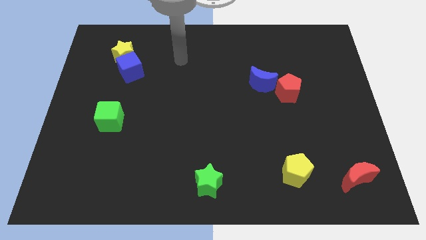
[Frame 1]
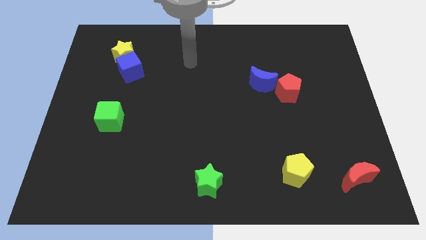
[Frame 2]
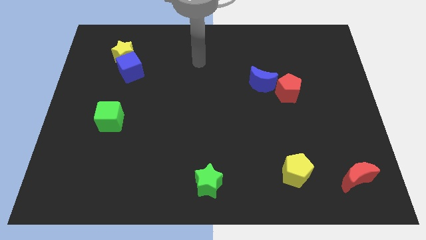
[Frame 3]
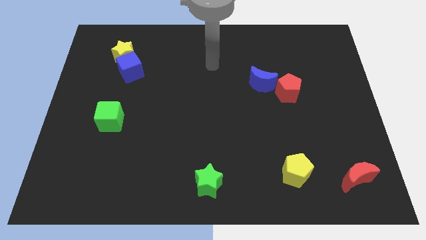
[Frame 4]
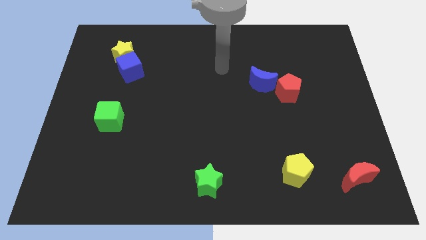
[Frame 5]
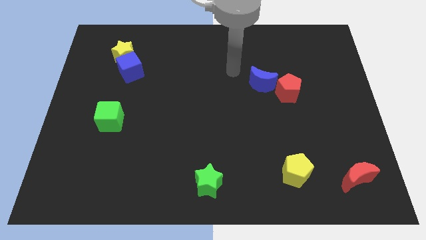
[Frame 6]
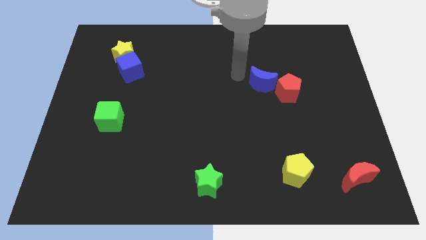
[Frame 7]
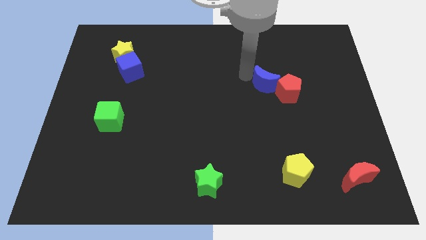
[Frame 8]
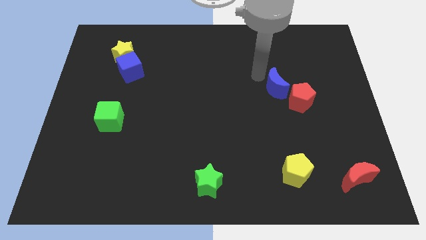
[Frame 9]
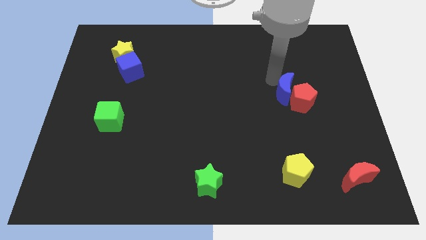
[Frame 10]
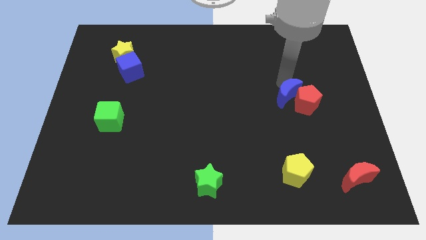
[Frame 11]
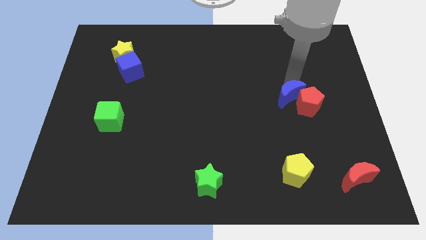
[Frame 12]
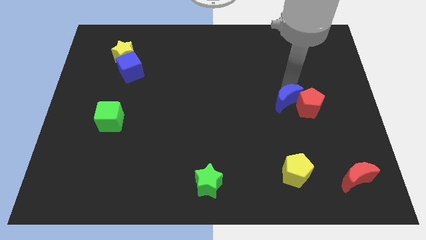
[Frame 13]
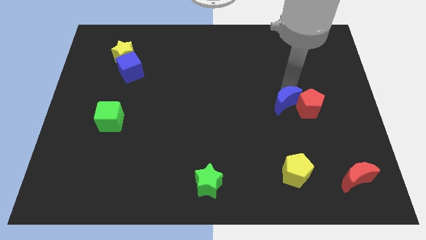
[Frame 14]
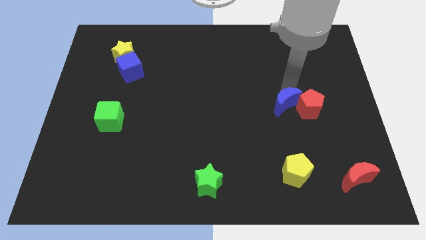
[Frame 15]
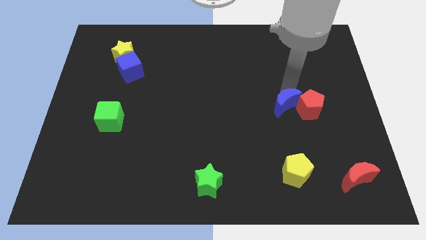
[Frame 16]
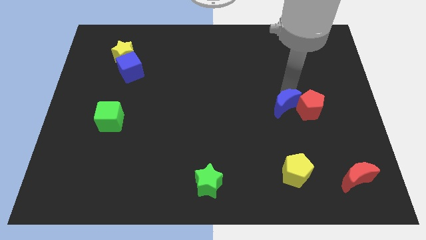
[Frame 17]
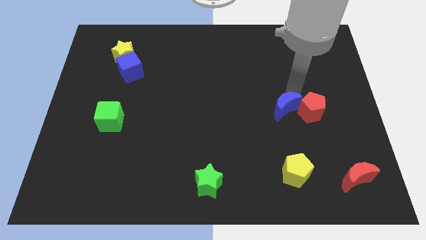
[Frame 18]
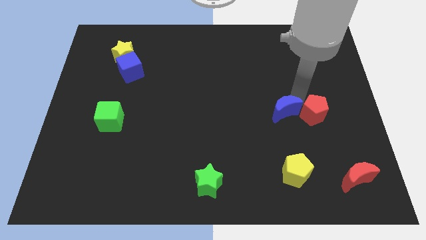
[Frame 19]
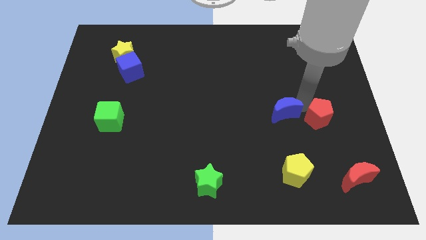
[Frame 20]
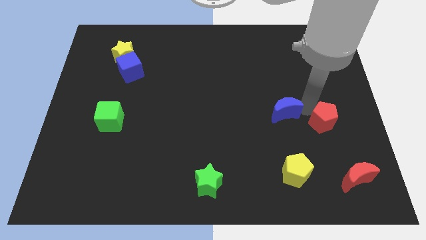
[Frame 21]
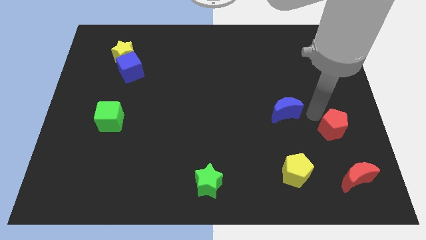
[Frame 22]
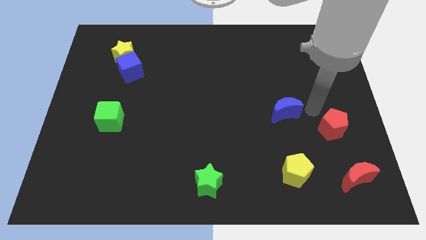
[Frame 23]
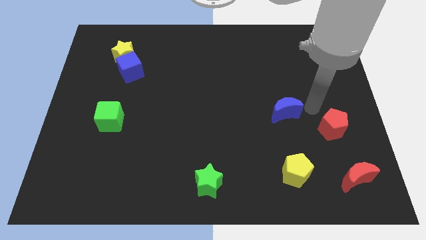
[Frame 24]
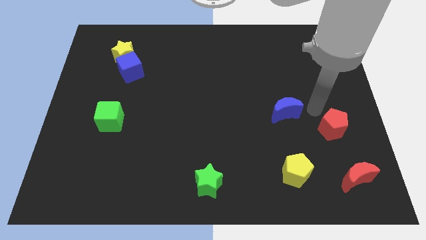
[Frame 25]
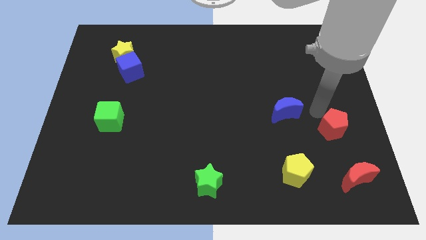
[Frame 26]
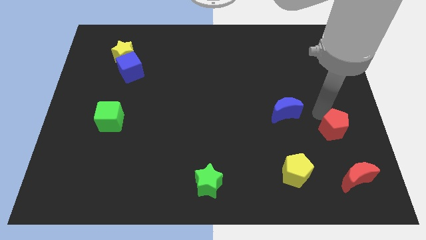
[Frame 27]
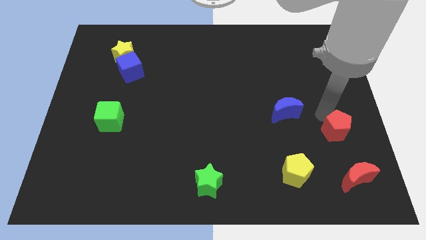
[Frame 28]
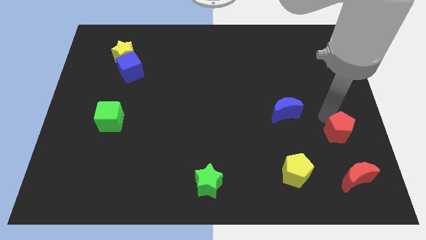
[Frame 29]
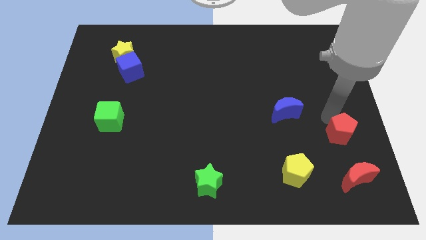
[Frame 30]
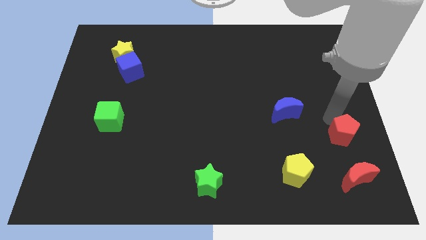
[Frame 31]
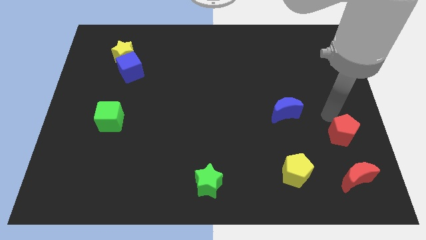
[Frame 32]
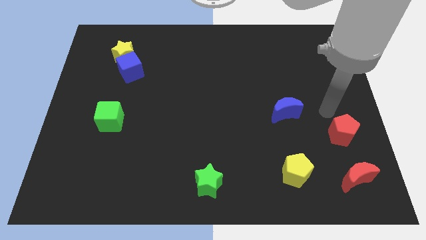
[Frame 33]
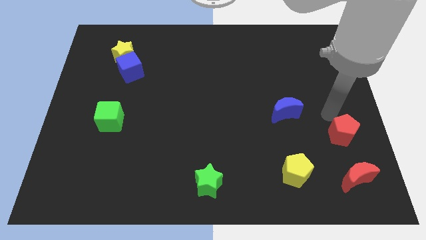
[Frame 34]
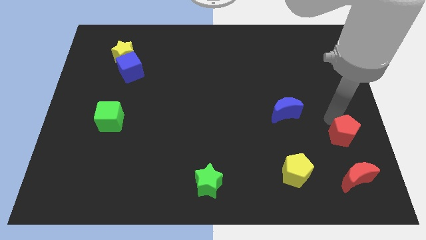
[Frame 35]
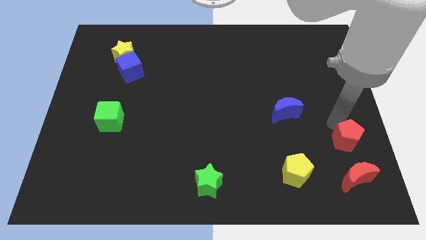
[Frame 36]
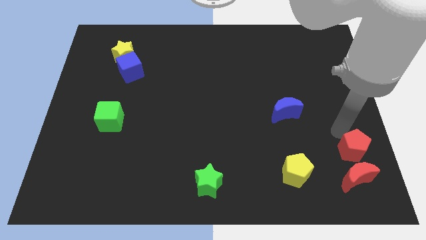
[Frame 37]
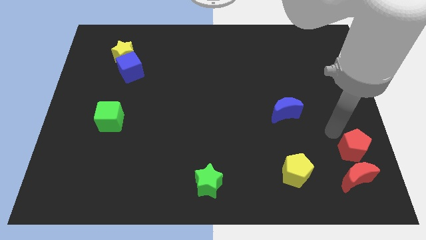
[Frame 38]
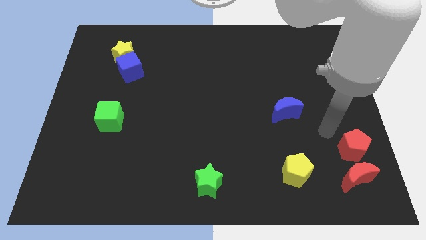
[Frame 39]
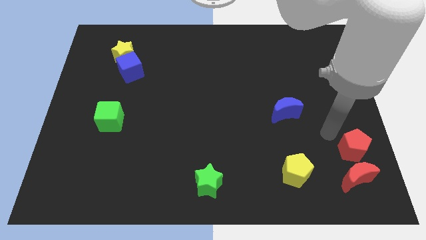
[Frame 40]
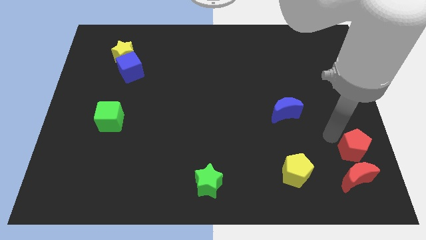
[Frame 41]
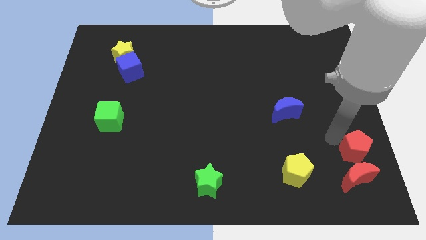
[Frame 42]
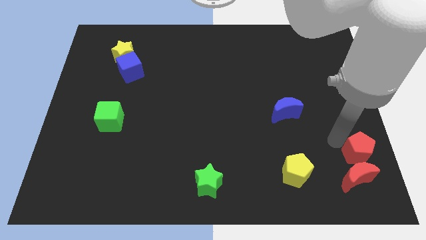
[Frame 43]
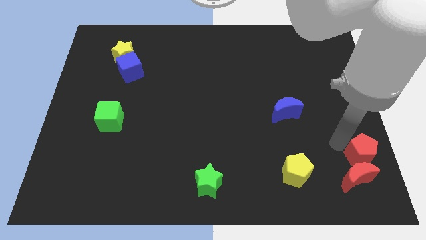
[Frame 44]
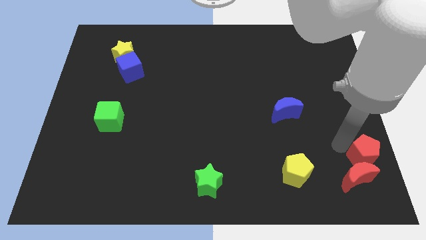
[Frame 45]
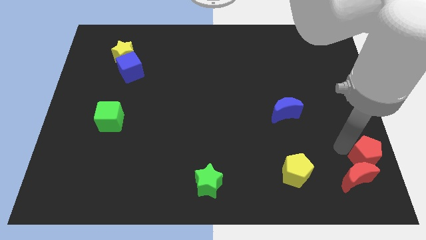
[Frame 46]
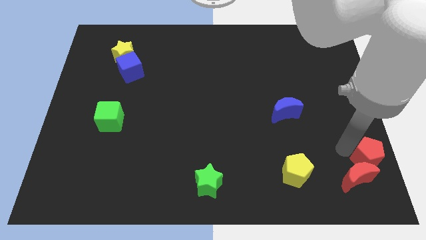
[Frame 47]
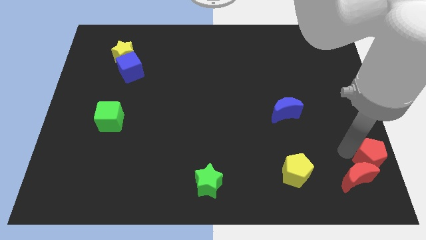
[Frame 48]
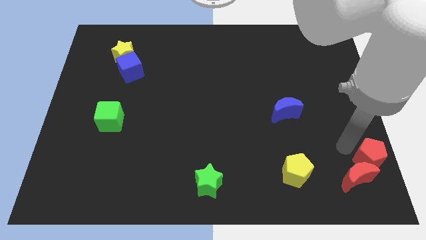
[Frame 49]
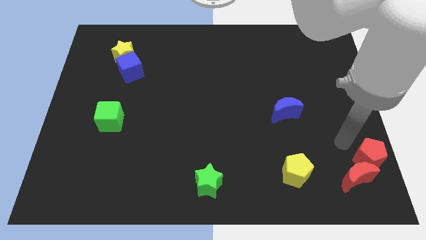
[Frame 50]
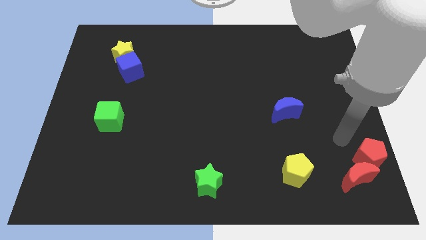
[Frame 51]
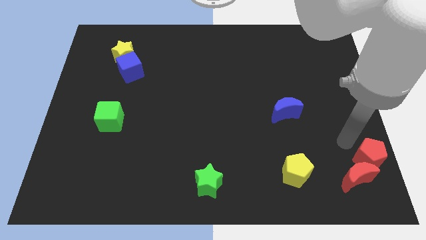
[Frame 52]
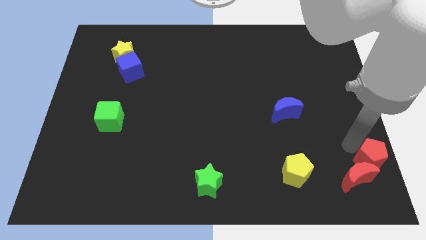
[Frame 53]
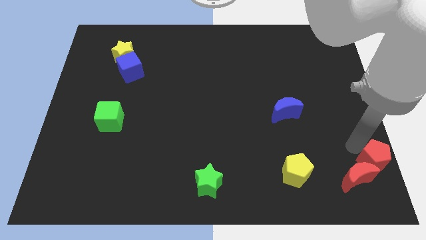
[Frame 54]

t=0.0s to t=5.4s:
slide the red pentagon to the lower right corner
